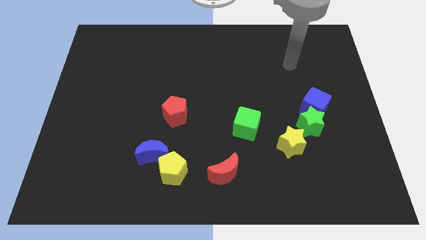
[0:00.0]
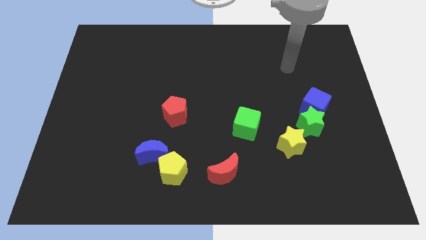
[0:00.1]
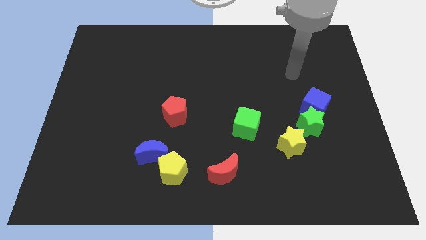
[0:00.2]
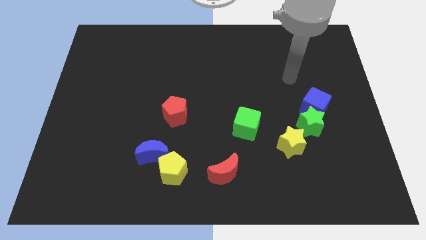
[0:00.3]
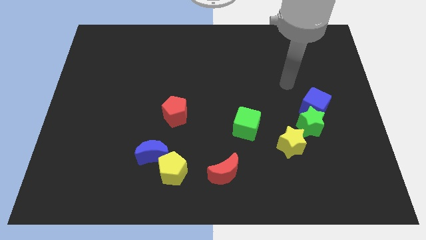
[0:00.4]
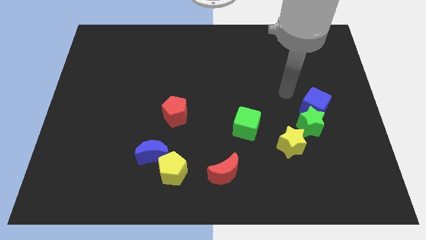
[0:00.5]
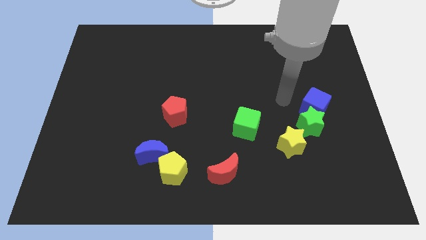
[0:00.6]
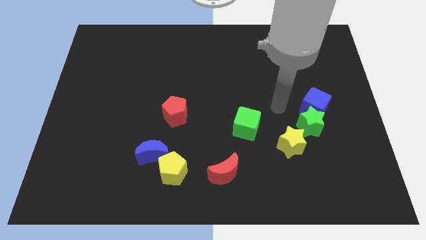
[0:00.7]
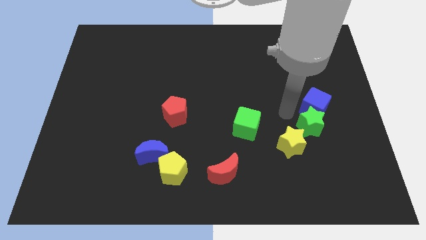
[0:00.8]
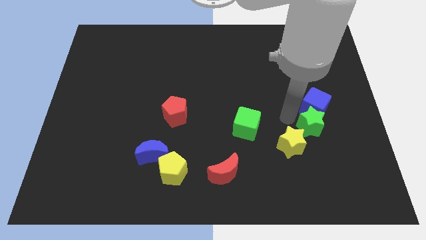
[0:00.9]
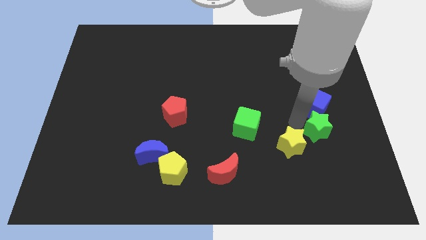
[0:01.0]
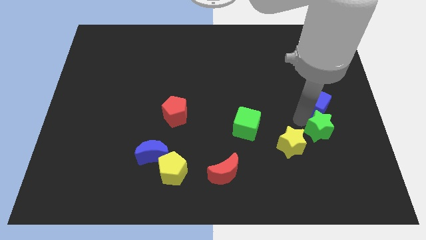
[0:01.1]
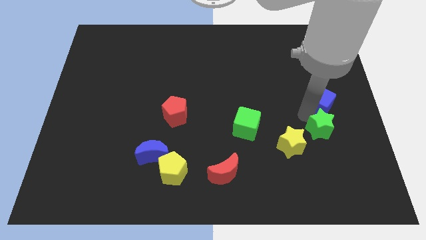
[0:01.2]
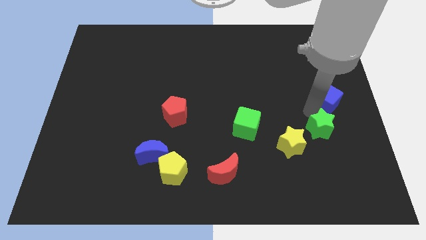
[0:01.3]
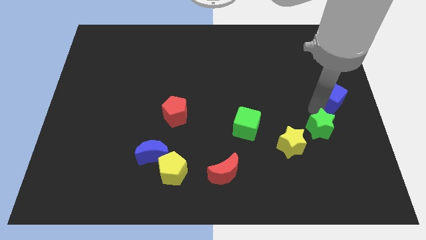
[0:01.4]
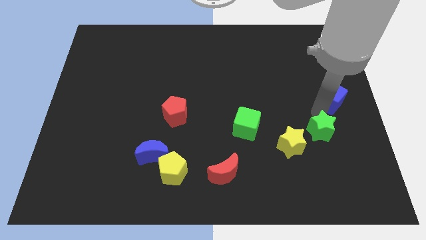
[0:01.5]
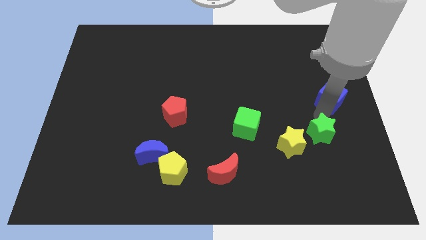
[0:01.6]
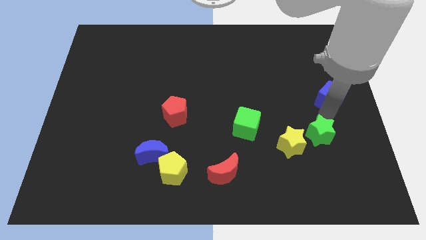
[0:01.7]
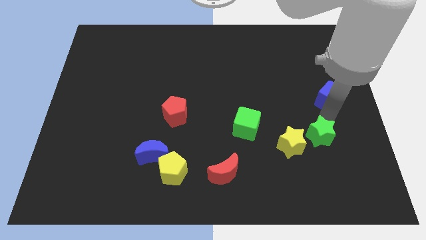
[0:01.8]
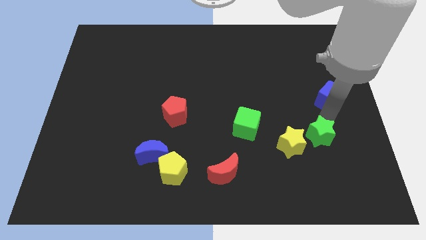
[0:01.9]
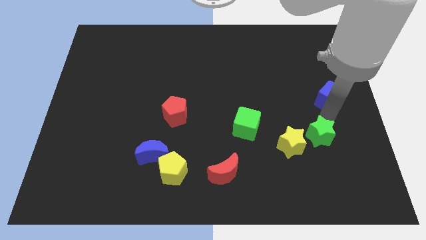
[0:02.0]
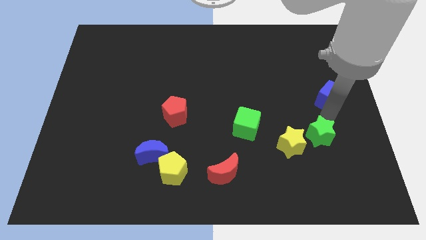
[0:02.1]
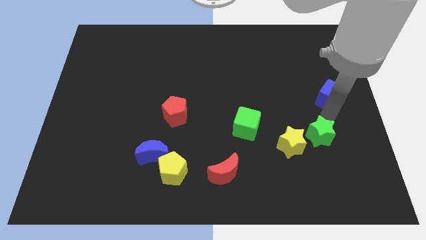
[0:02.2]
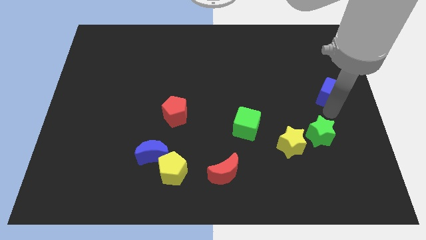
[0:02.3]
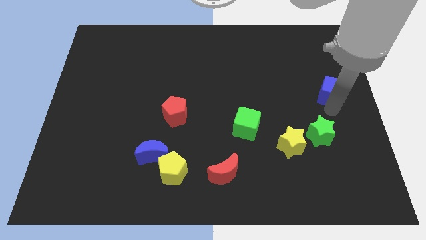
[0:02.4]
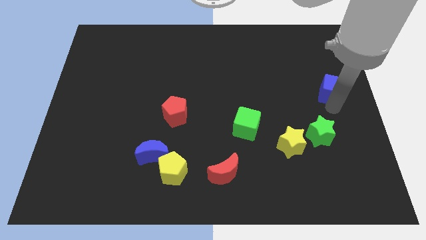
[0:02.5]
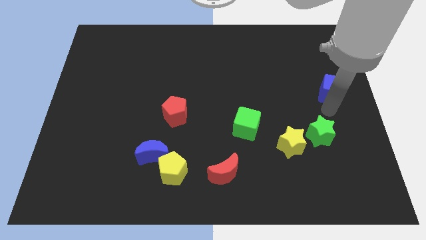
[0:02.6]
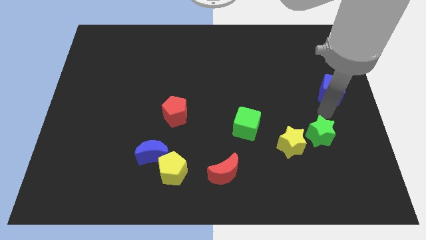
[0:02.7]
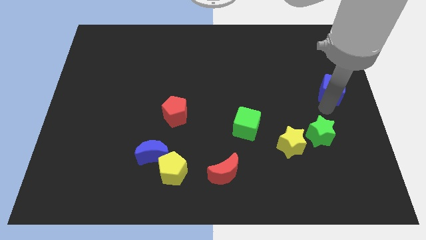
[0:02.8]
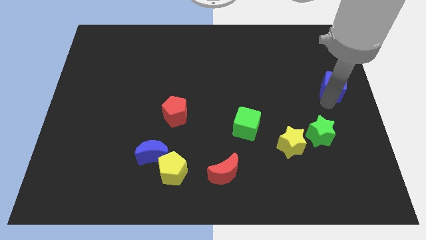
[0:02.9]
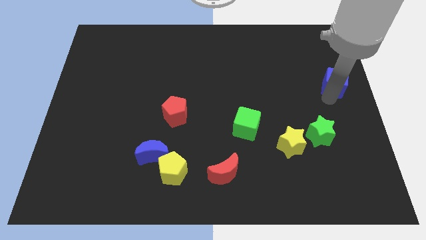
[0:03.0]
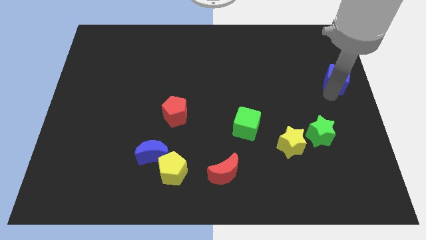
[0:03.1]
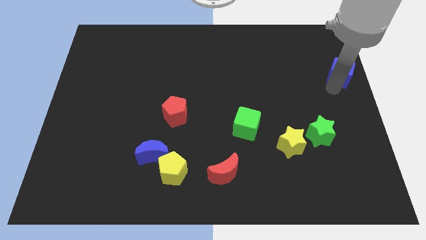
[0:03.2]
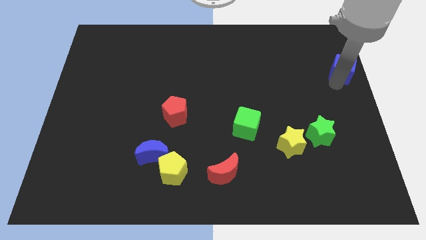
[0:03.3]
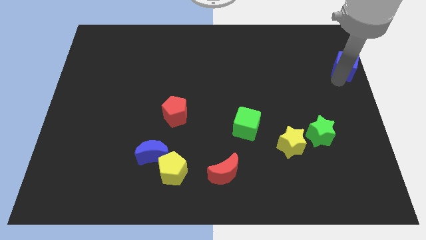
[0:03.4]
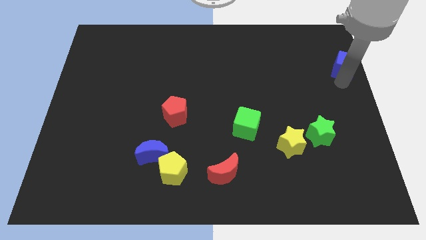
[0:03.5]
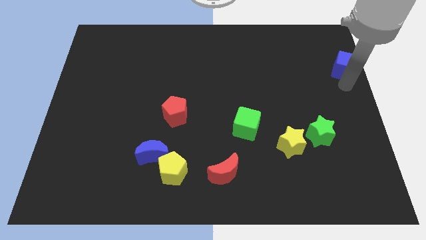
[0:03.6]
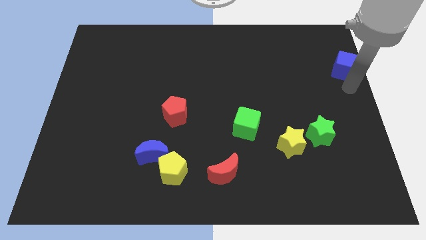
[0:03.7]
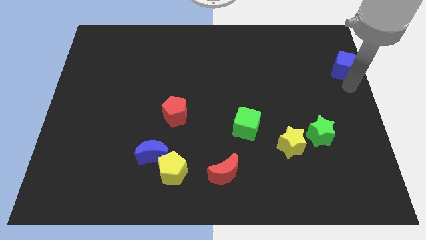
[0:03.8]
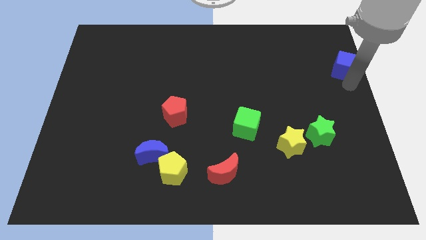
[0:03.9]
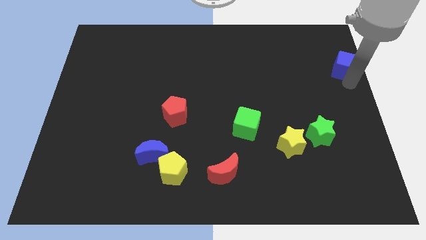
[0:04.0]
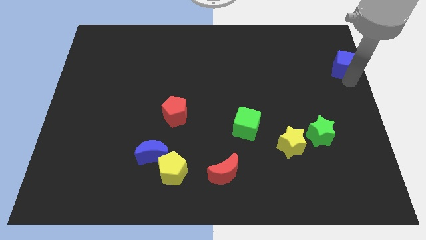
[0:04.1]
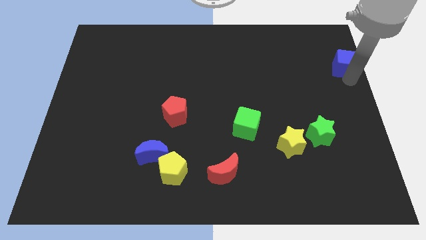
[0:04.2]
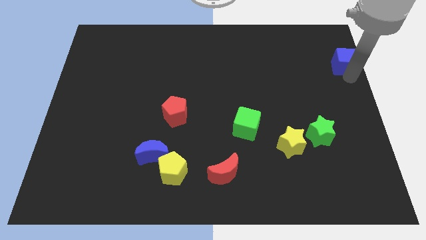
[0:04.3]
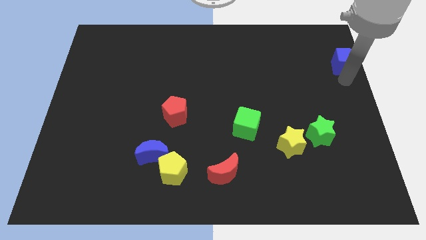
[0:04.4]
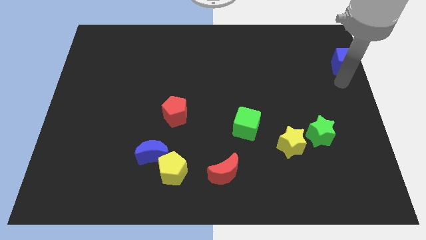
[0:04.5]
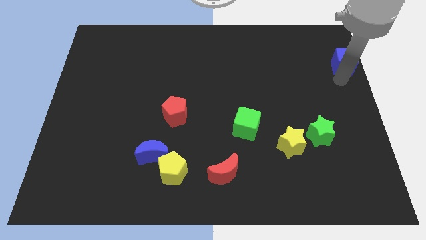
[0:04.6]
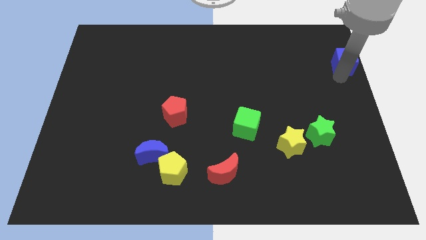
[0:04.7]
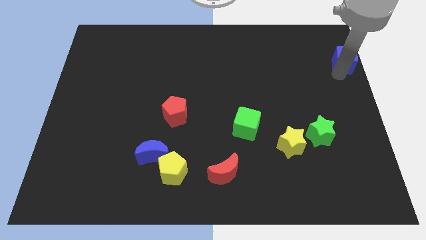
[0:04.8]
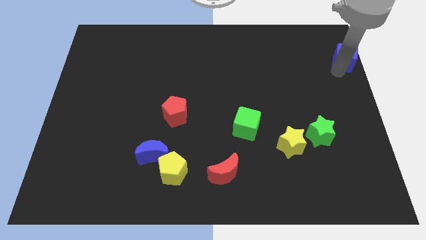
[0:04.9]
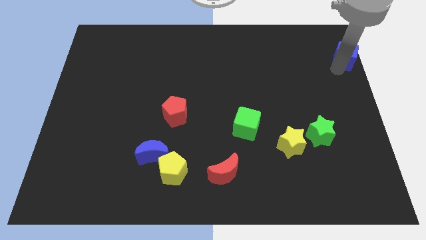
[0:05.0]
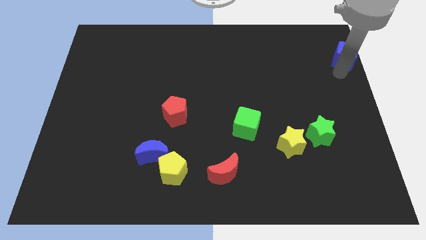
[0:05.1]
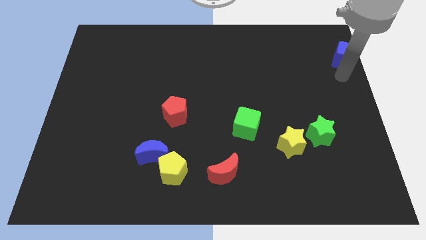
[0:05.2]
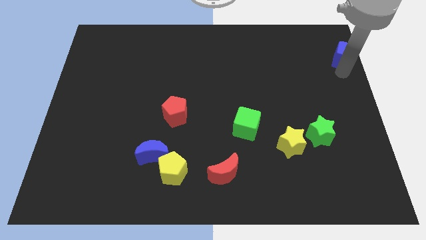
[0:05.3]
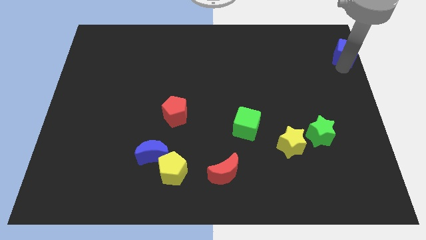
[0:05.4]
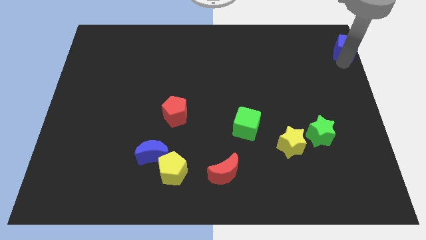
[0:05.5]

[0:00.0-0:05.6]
push the blue cube to the top right of the board

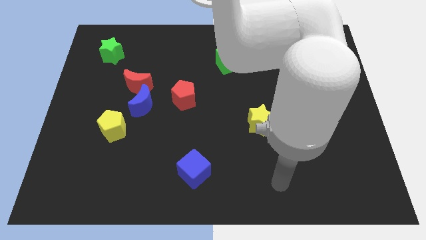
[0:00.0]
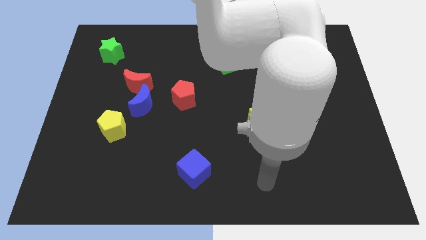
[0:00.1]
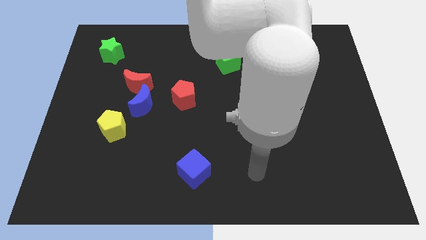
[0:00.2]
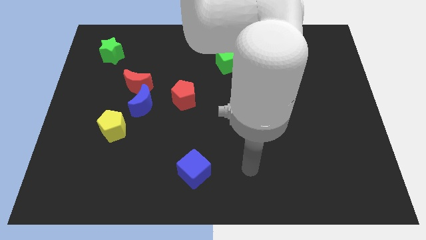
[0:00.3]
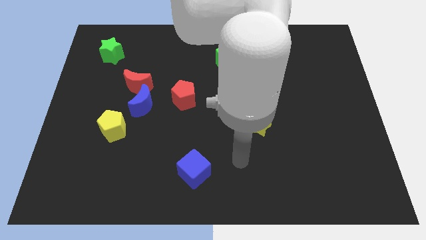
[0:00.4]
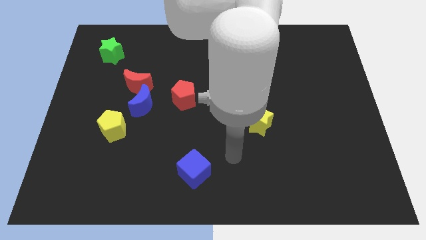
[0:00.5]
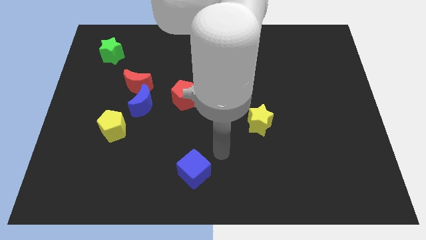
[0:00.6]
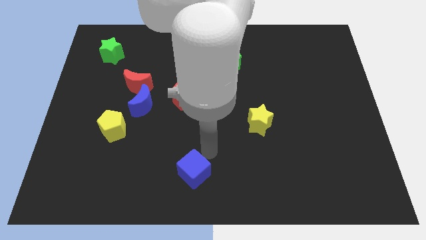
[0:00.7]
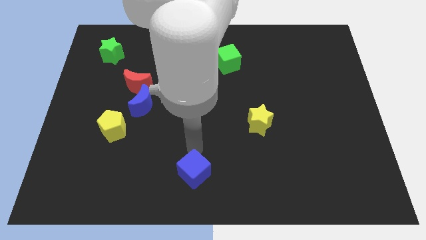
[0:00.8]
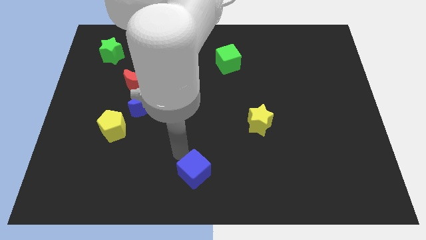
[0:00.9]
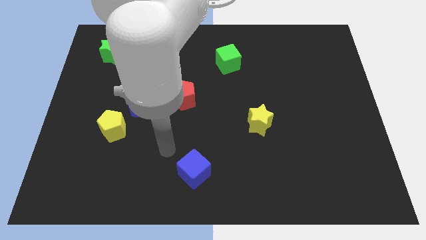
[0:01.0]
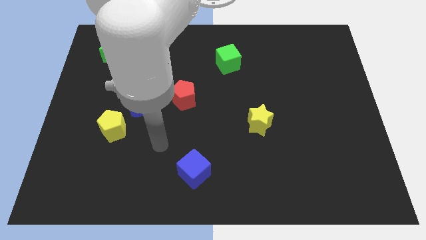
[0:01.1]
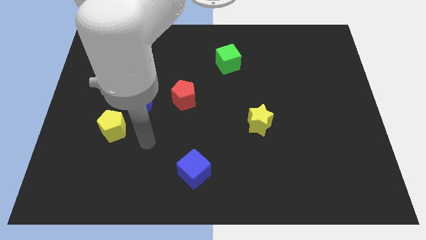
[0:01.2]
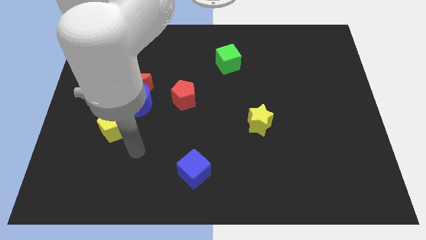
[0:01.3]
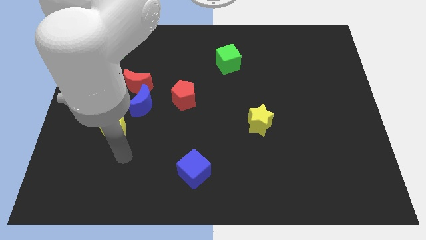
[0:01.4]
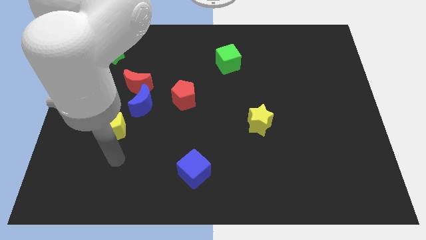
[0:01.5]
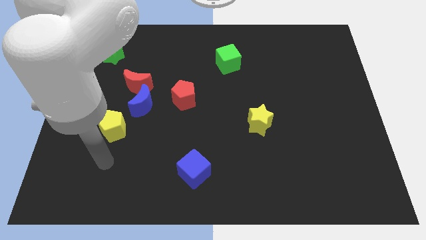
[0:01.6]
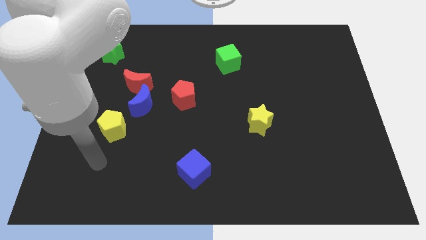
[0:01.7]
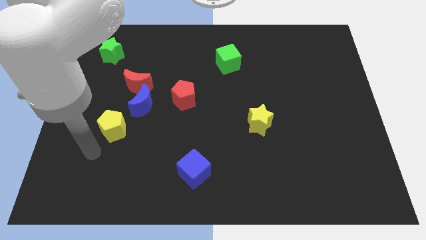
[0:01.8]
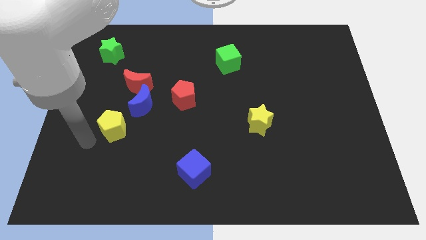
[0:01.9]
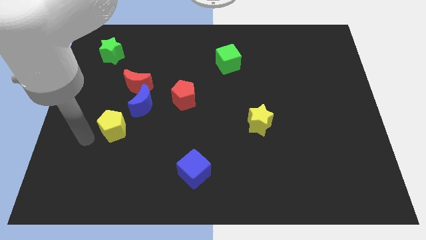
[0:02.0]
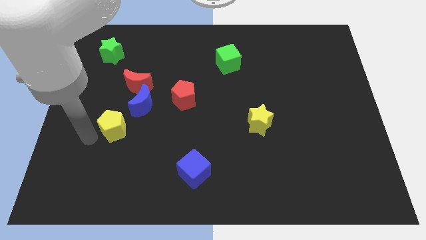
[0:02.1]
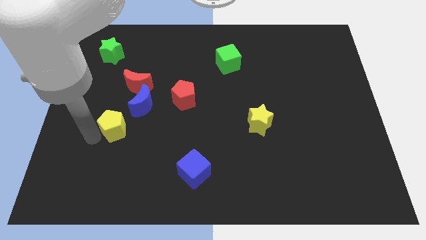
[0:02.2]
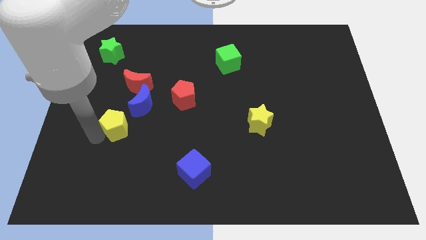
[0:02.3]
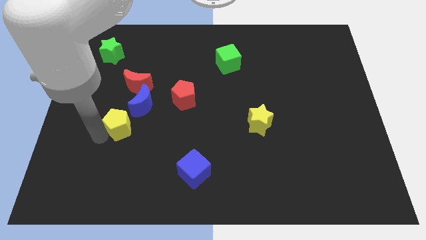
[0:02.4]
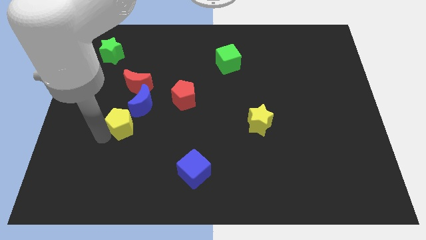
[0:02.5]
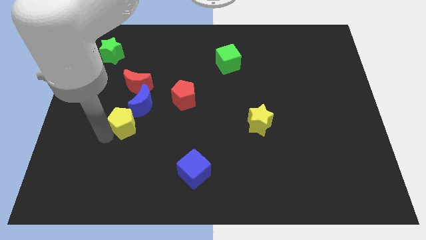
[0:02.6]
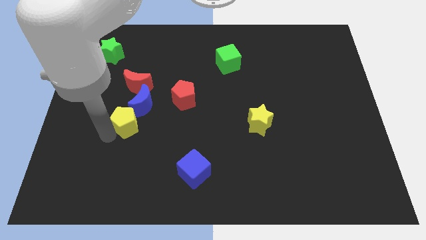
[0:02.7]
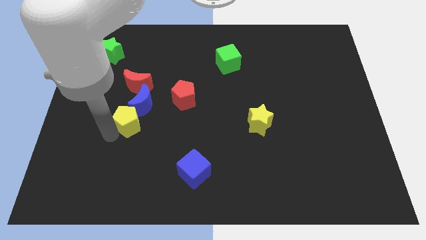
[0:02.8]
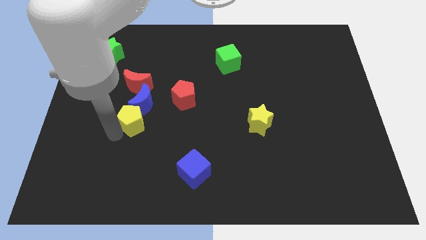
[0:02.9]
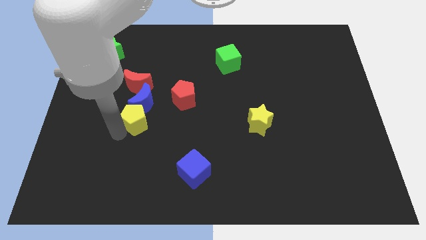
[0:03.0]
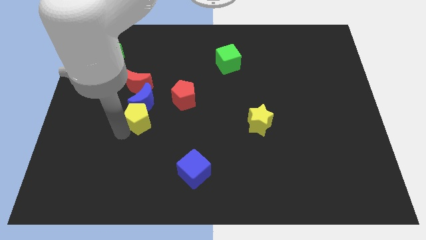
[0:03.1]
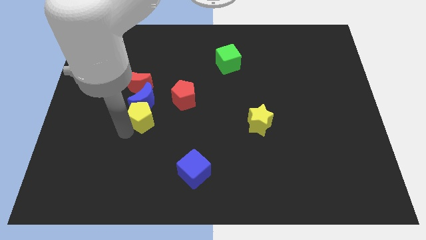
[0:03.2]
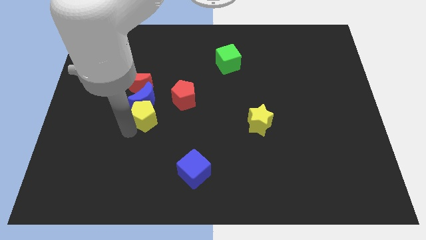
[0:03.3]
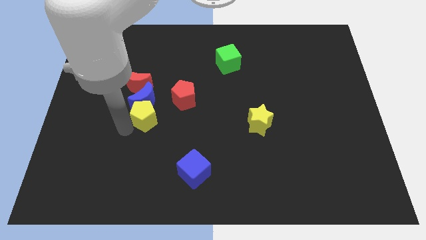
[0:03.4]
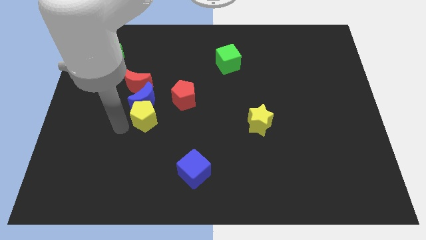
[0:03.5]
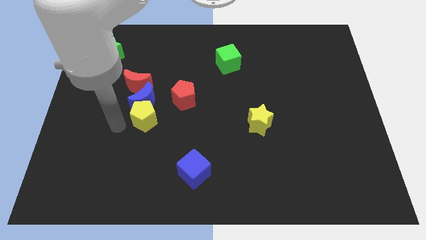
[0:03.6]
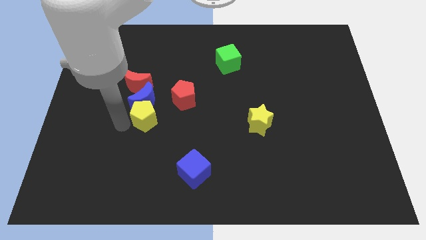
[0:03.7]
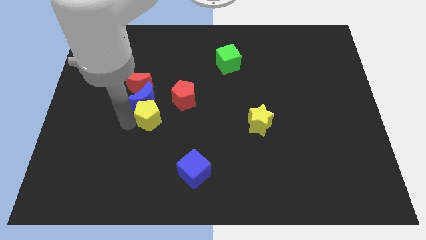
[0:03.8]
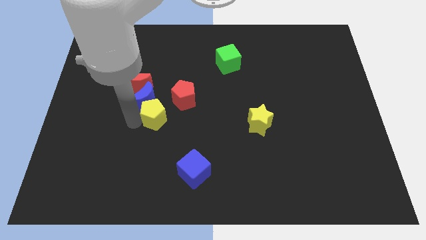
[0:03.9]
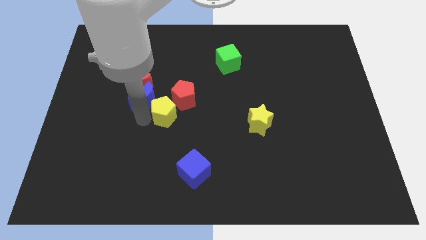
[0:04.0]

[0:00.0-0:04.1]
push the yellow pentagon to the center
